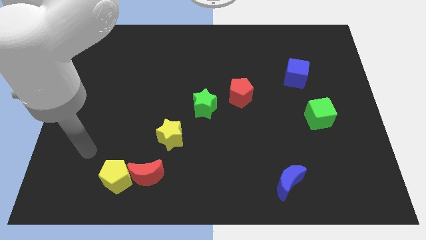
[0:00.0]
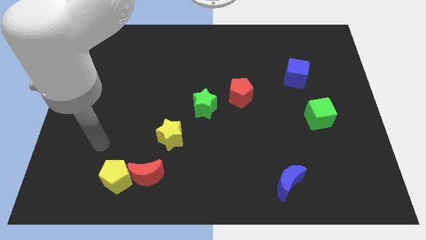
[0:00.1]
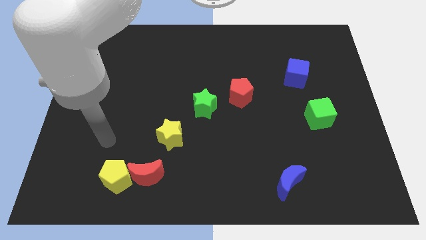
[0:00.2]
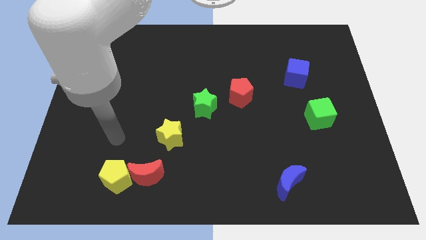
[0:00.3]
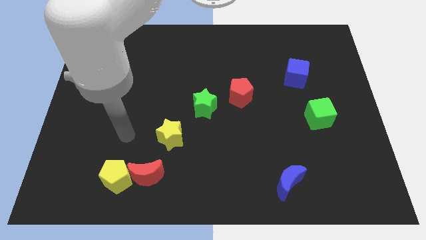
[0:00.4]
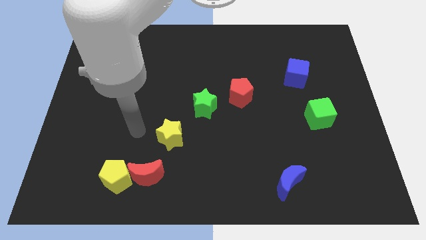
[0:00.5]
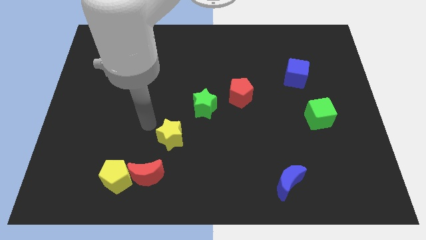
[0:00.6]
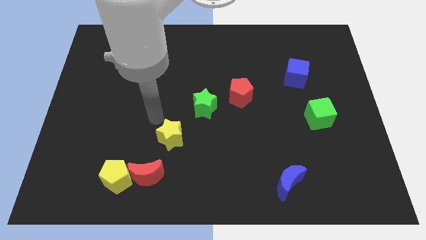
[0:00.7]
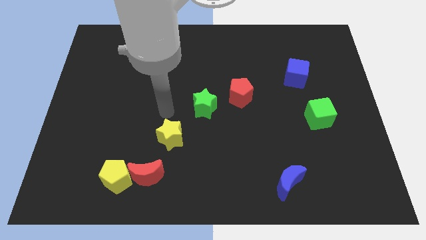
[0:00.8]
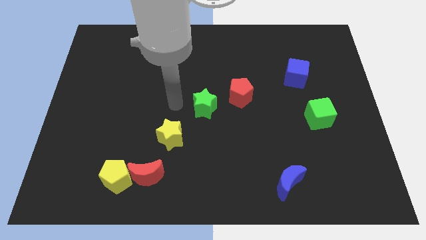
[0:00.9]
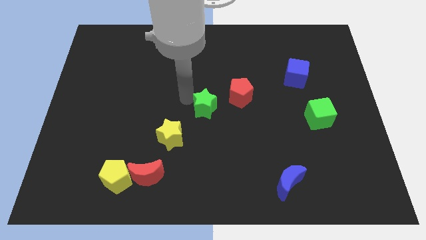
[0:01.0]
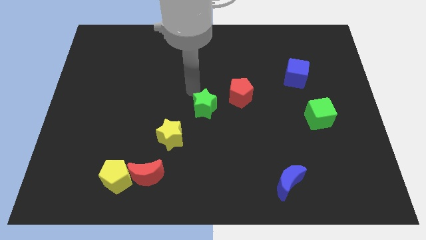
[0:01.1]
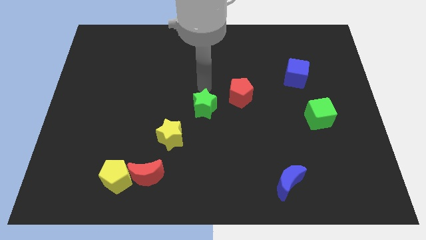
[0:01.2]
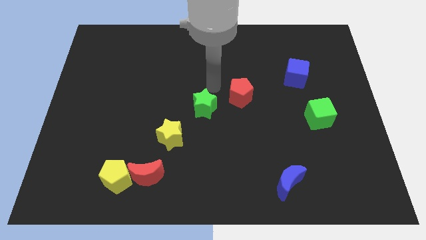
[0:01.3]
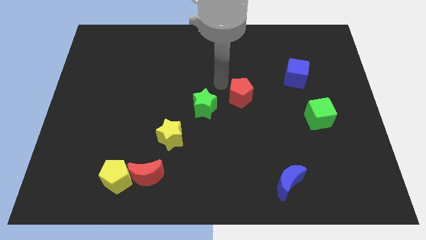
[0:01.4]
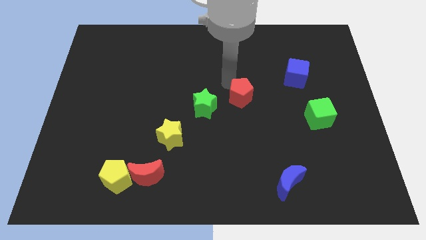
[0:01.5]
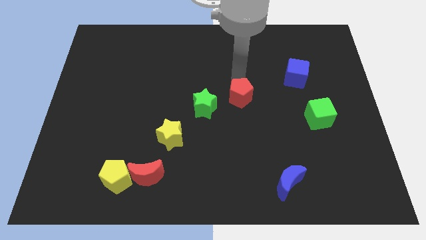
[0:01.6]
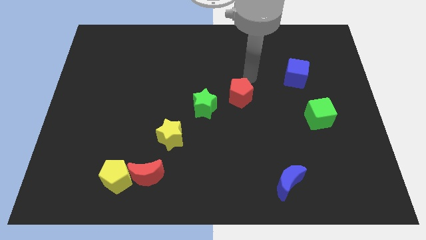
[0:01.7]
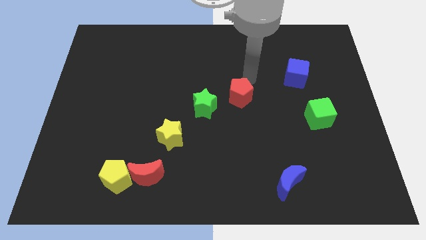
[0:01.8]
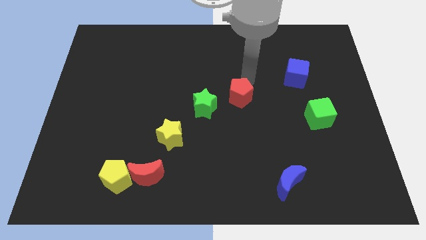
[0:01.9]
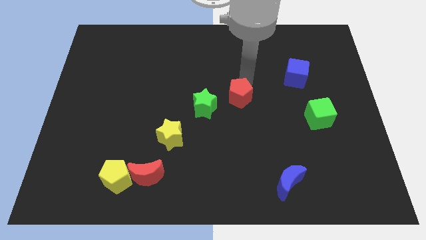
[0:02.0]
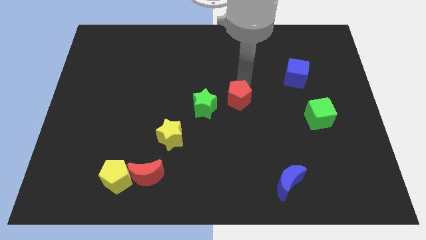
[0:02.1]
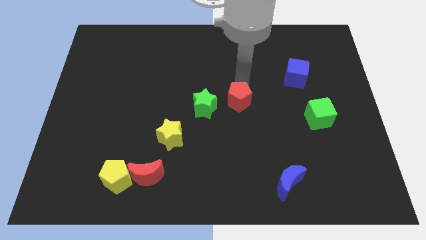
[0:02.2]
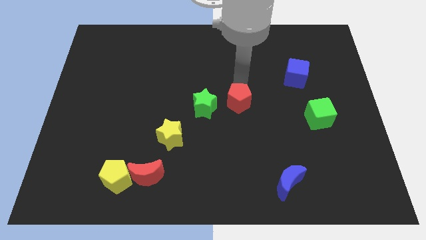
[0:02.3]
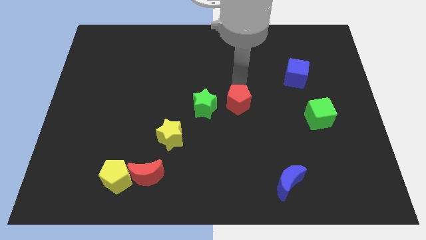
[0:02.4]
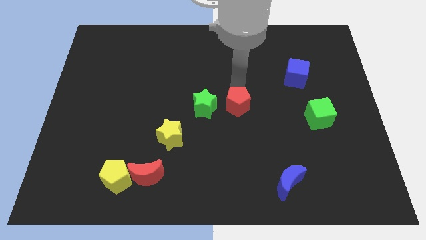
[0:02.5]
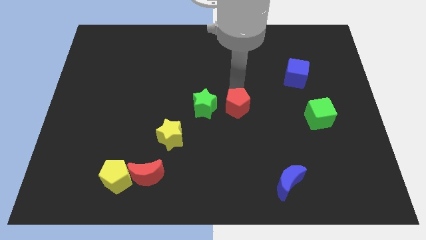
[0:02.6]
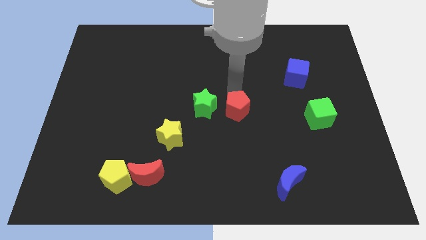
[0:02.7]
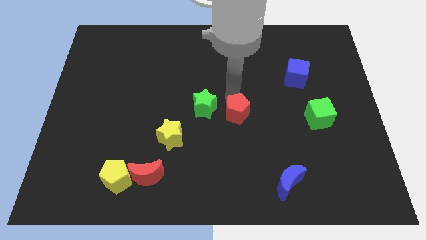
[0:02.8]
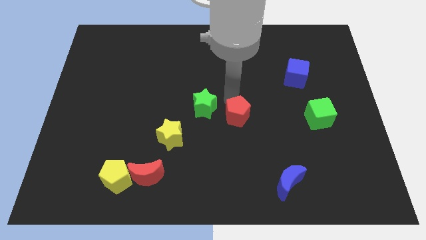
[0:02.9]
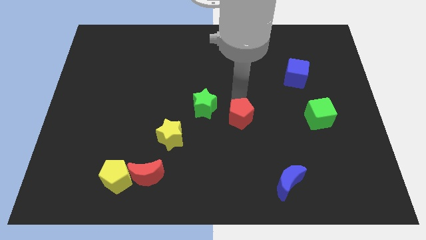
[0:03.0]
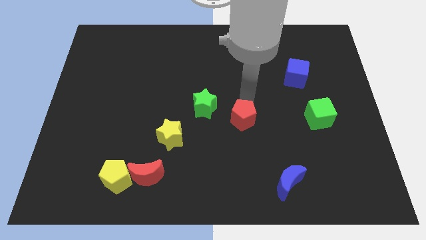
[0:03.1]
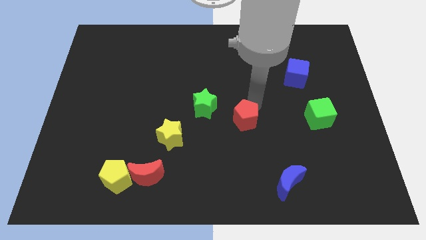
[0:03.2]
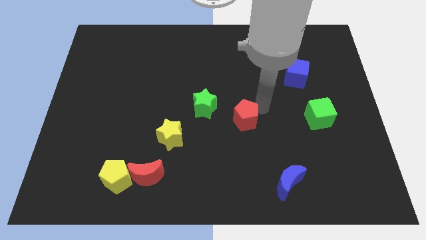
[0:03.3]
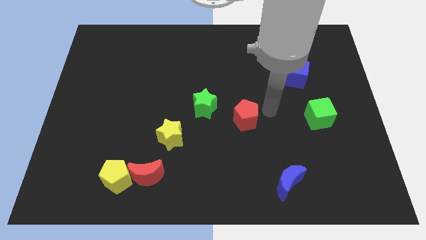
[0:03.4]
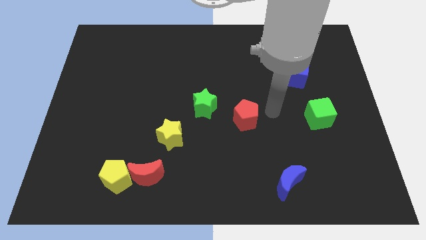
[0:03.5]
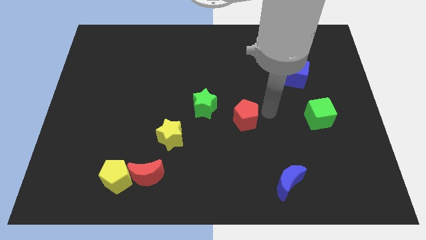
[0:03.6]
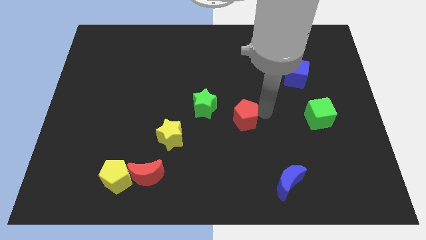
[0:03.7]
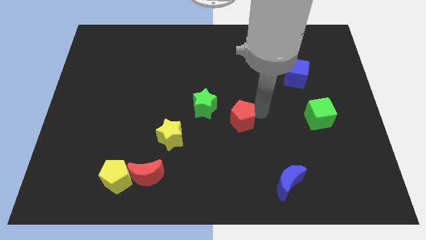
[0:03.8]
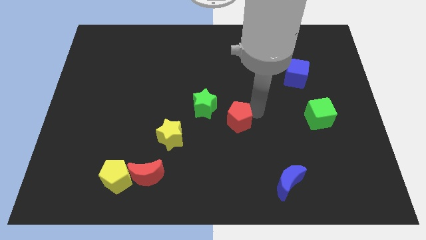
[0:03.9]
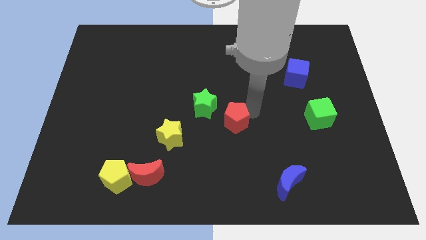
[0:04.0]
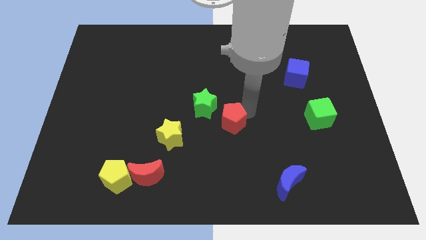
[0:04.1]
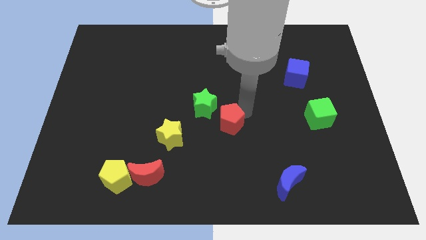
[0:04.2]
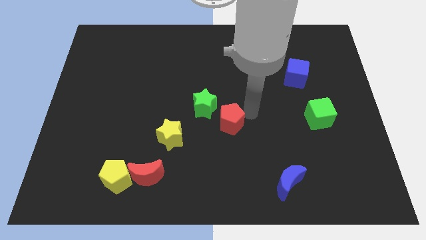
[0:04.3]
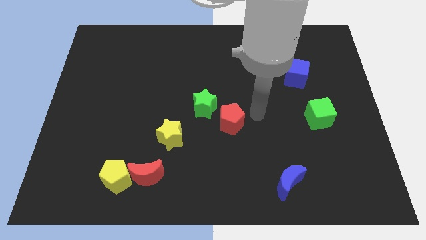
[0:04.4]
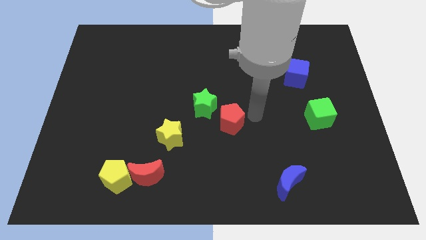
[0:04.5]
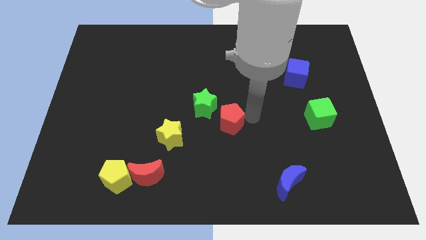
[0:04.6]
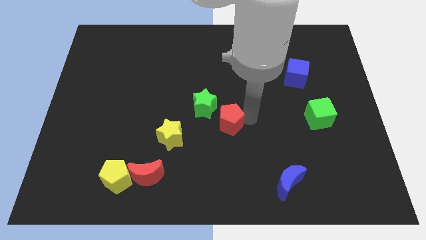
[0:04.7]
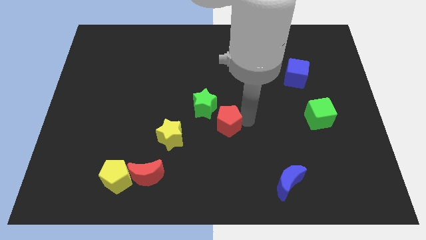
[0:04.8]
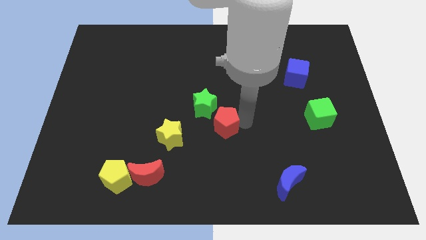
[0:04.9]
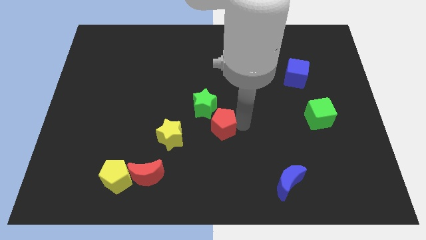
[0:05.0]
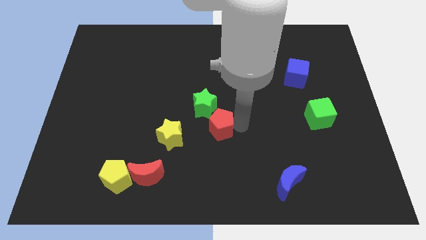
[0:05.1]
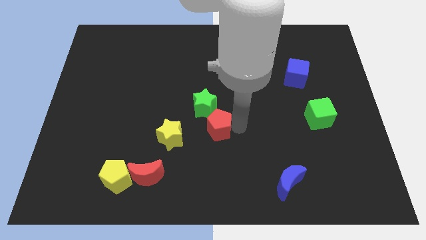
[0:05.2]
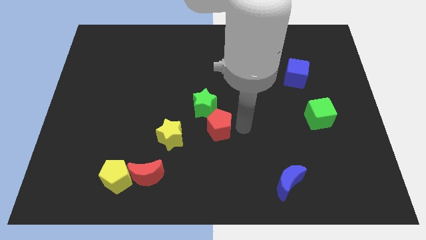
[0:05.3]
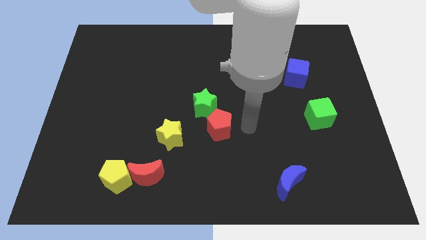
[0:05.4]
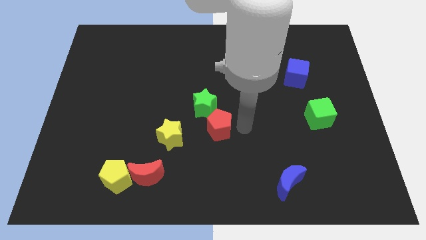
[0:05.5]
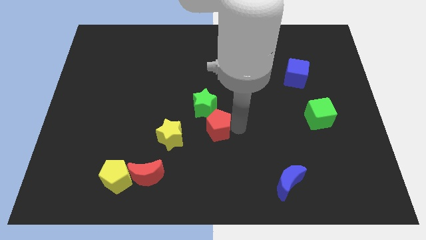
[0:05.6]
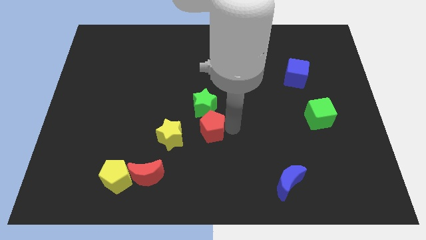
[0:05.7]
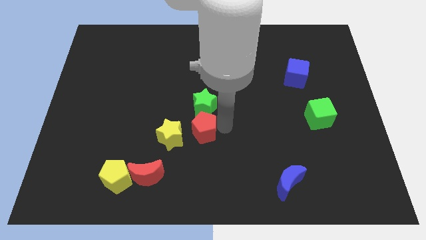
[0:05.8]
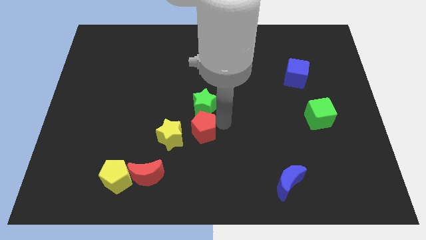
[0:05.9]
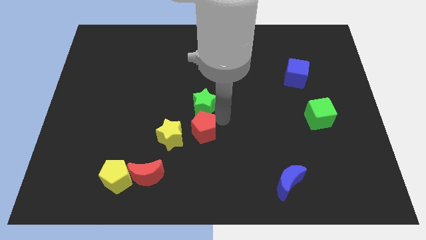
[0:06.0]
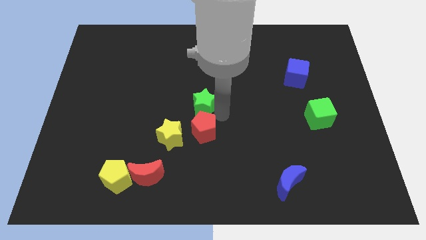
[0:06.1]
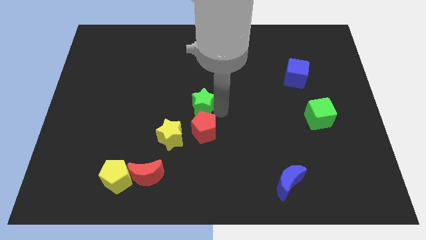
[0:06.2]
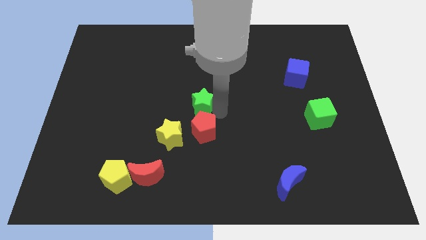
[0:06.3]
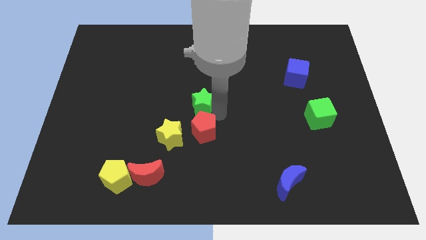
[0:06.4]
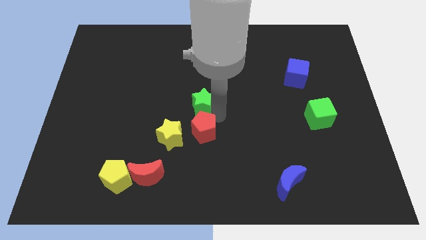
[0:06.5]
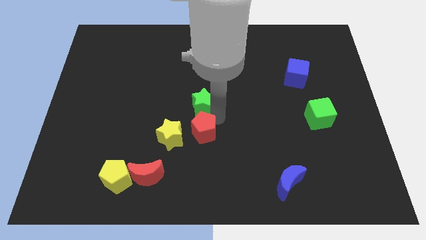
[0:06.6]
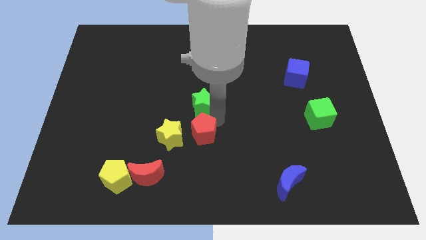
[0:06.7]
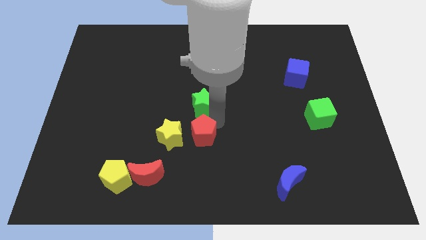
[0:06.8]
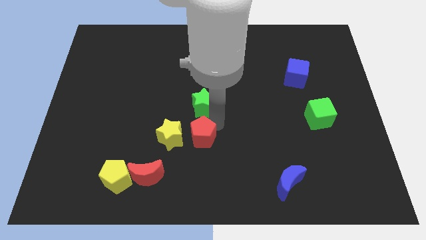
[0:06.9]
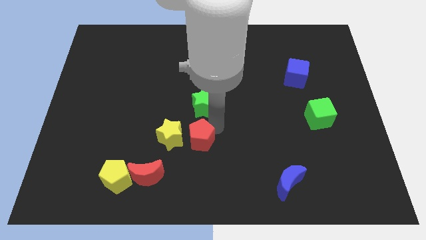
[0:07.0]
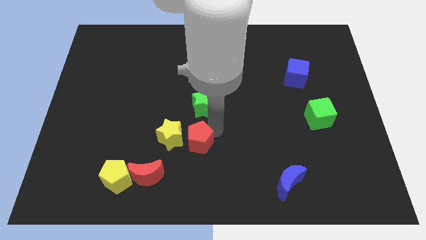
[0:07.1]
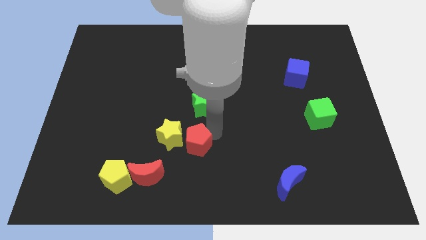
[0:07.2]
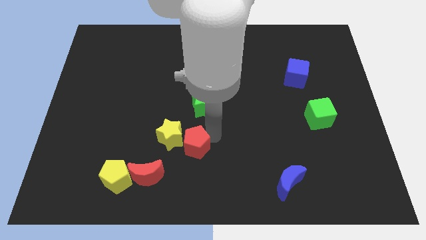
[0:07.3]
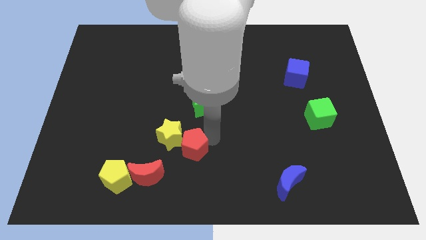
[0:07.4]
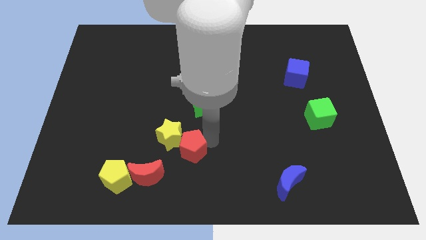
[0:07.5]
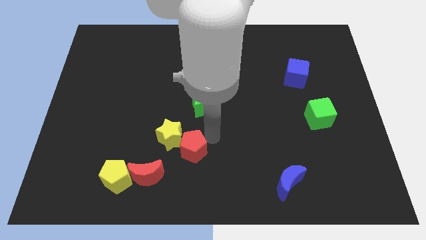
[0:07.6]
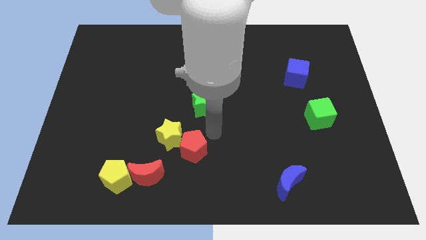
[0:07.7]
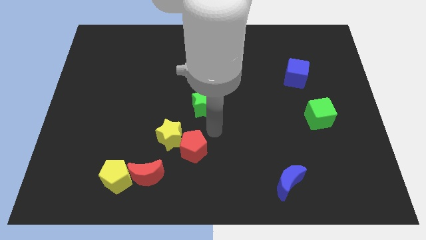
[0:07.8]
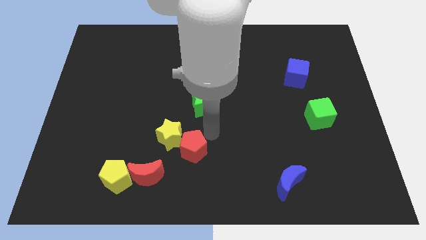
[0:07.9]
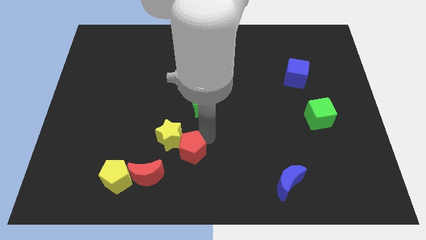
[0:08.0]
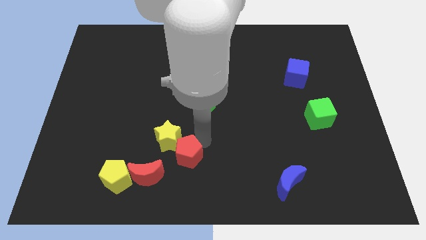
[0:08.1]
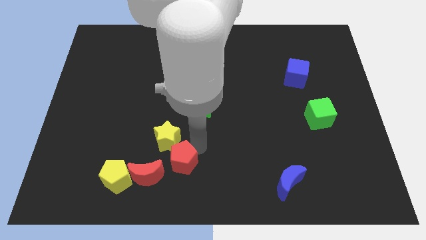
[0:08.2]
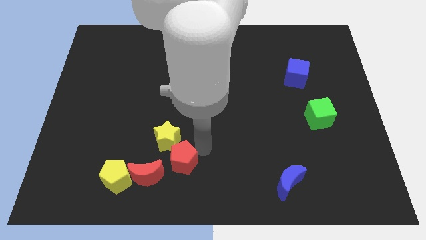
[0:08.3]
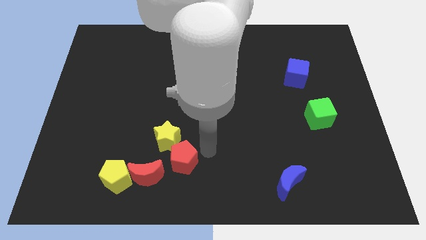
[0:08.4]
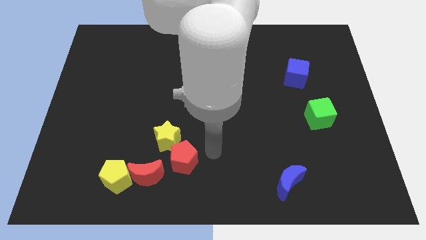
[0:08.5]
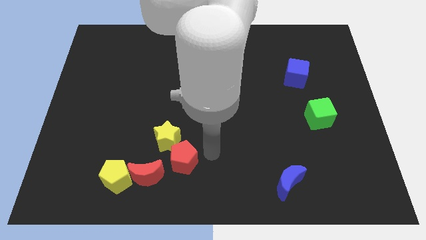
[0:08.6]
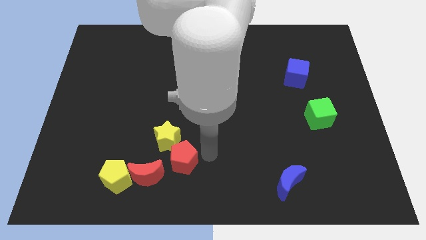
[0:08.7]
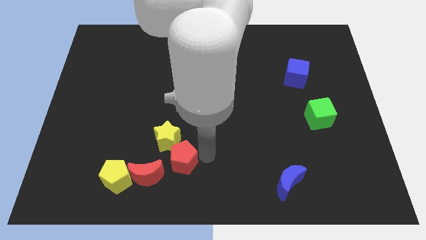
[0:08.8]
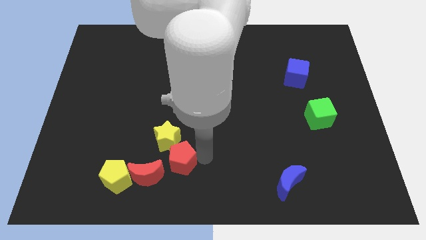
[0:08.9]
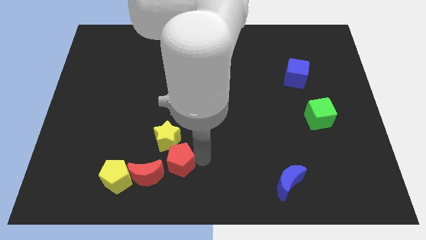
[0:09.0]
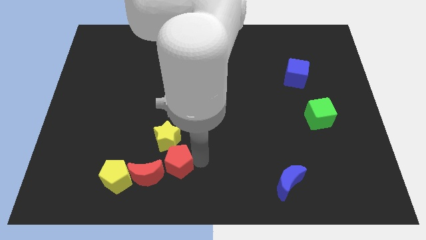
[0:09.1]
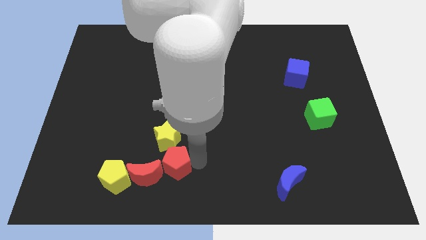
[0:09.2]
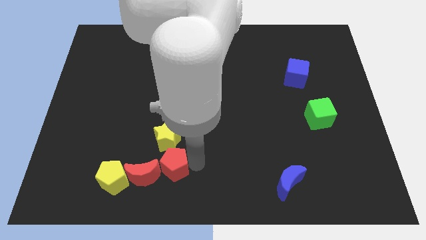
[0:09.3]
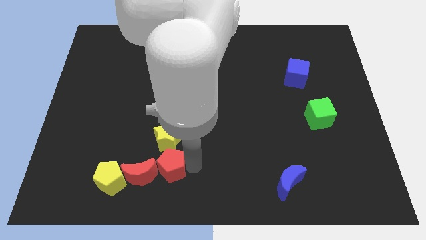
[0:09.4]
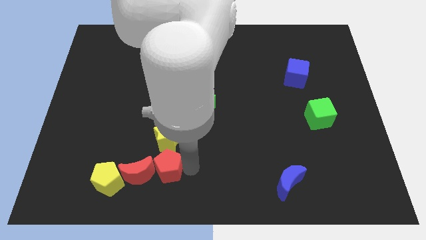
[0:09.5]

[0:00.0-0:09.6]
put the red pentagon to the red moon
